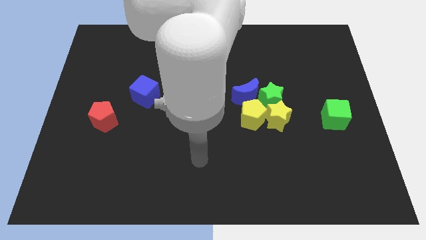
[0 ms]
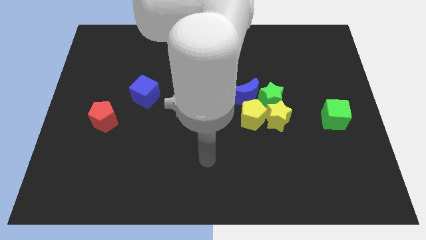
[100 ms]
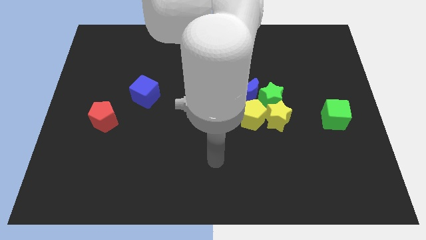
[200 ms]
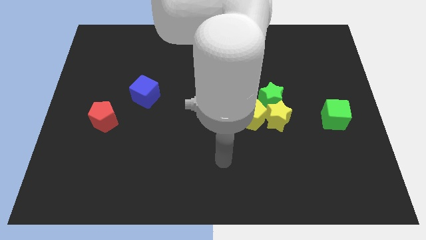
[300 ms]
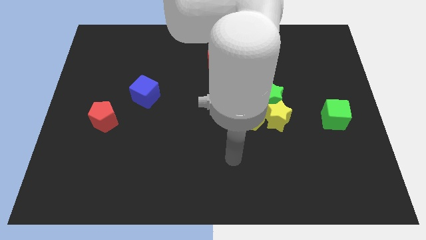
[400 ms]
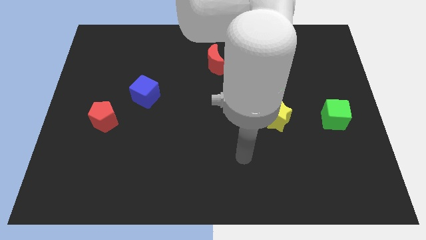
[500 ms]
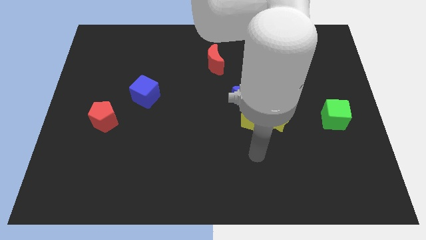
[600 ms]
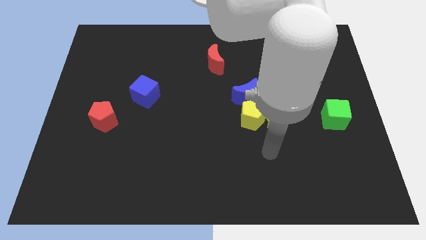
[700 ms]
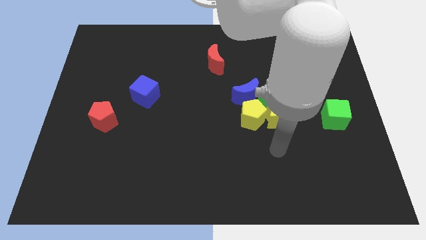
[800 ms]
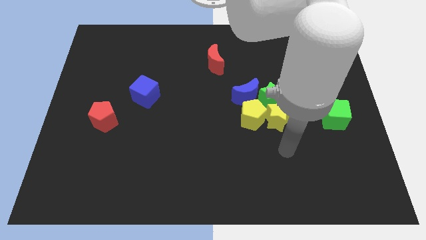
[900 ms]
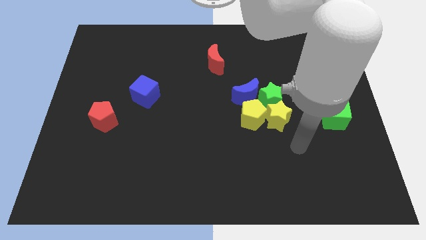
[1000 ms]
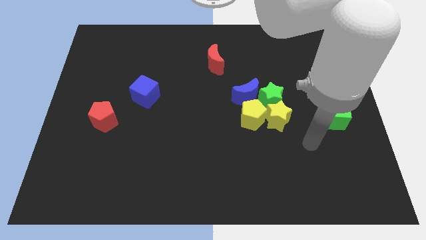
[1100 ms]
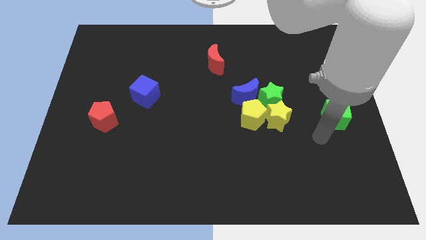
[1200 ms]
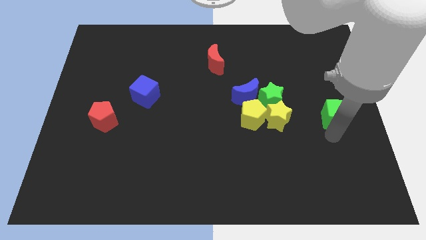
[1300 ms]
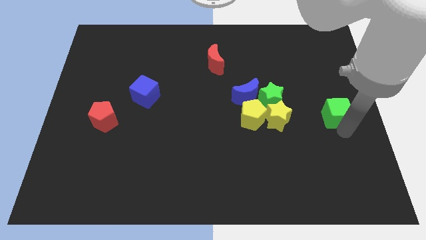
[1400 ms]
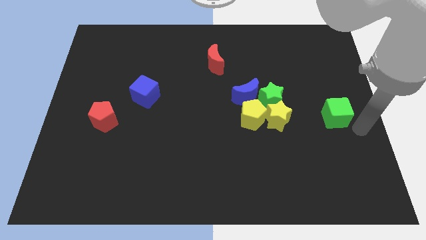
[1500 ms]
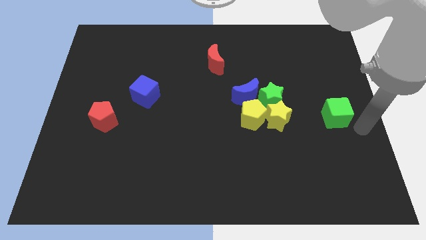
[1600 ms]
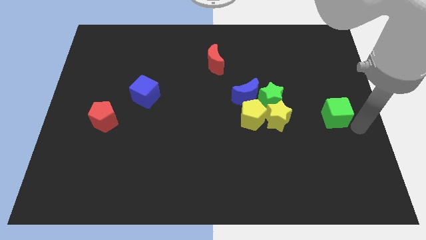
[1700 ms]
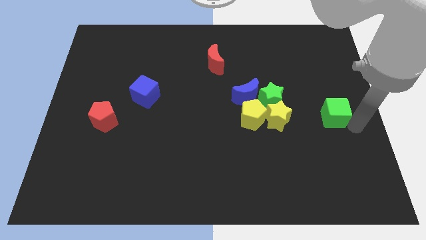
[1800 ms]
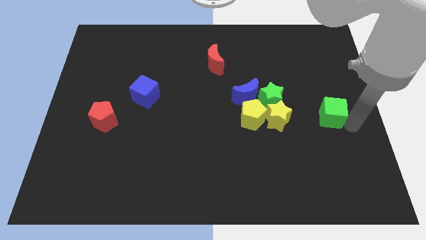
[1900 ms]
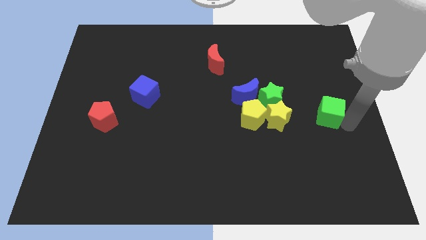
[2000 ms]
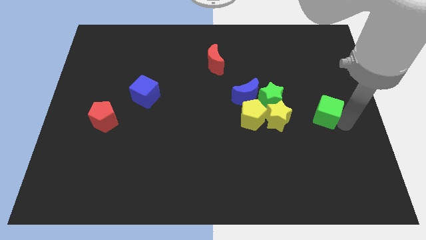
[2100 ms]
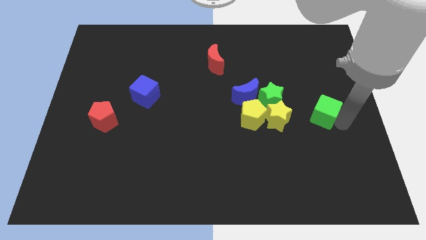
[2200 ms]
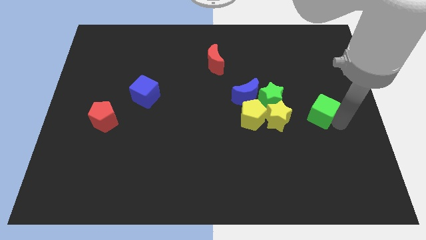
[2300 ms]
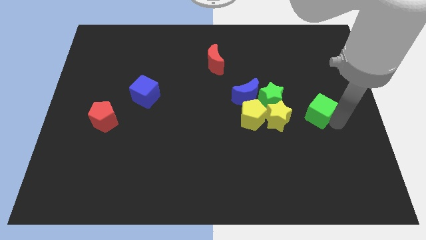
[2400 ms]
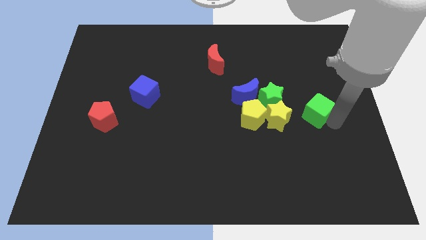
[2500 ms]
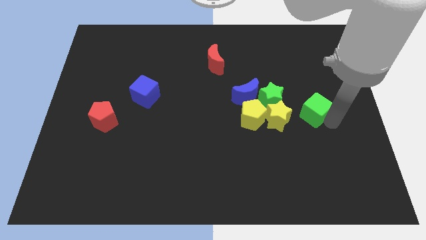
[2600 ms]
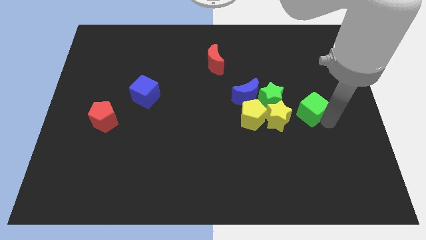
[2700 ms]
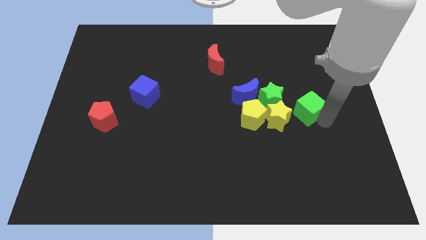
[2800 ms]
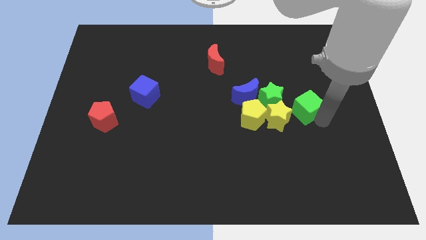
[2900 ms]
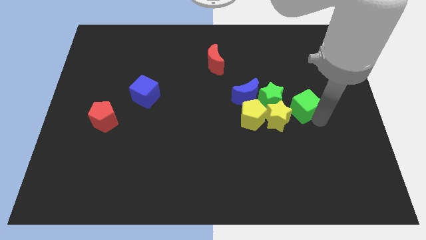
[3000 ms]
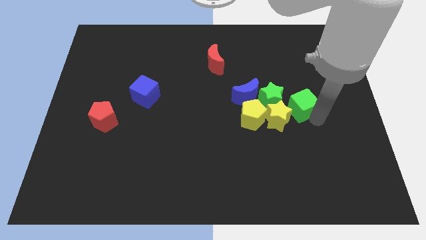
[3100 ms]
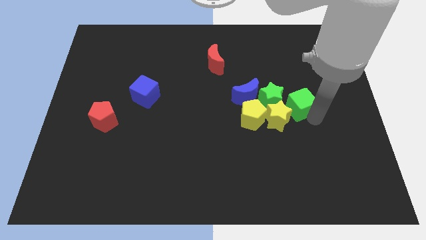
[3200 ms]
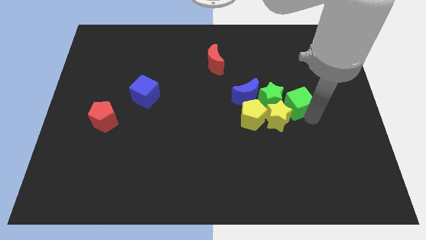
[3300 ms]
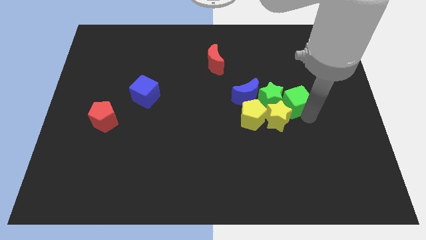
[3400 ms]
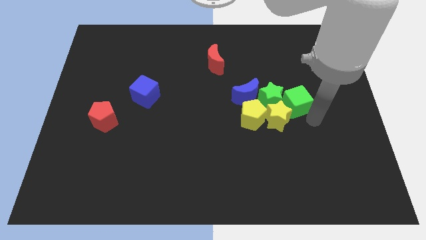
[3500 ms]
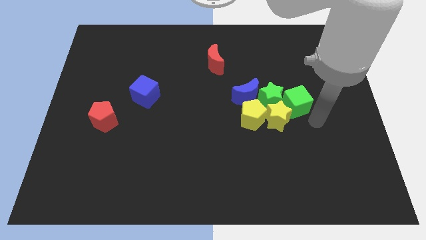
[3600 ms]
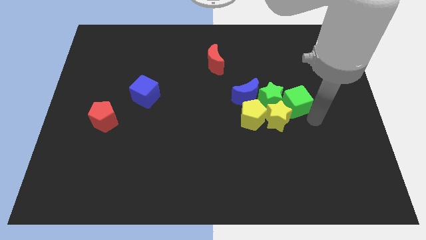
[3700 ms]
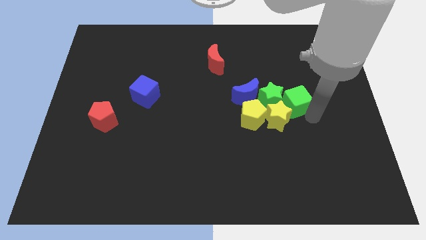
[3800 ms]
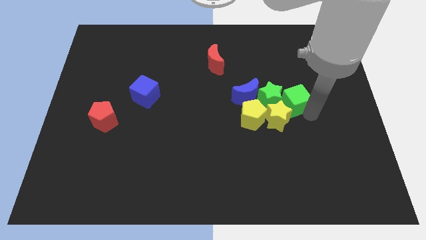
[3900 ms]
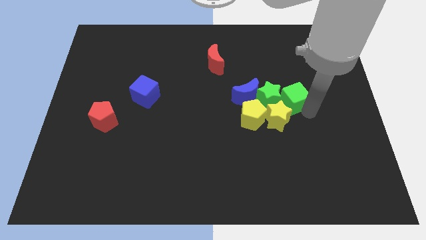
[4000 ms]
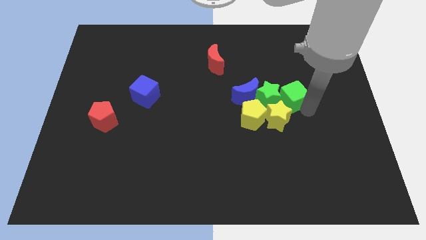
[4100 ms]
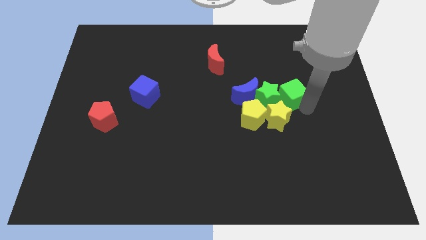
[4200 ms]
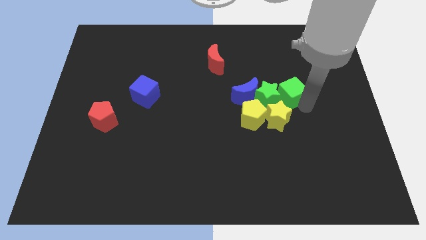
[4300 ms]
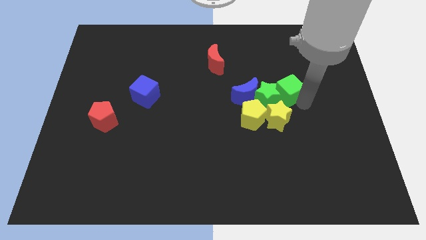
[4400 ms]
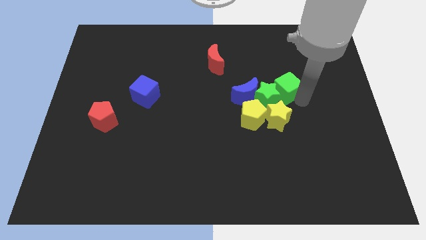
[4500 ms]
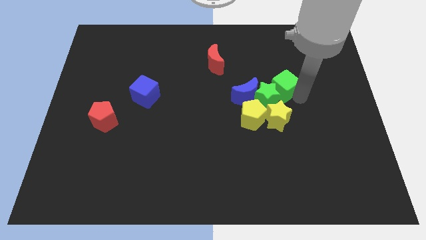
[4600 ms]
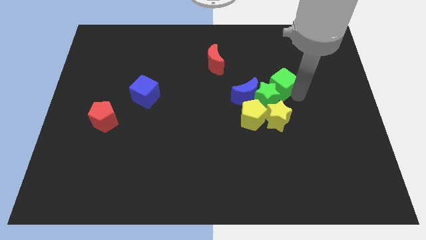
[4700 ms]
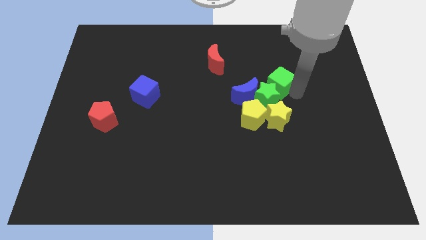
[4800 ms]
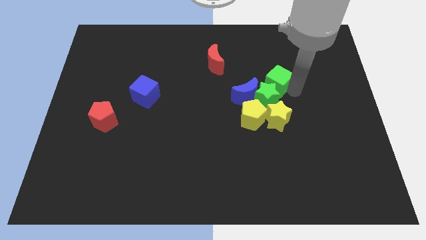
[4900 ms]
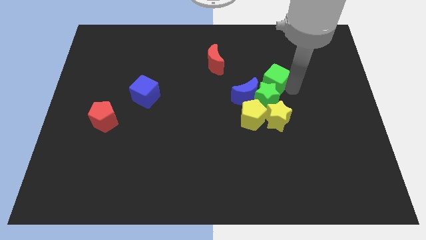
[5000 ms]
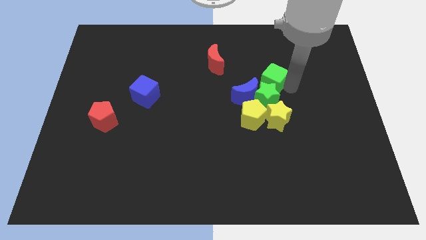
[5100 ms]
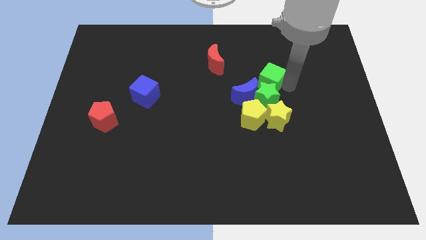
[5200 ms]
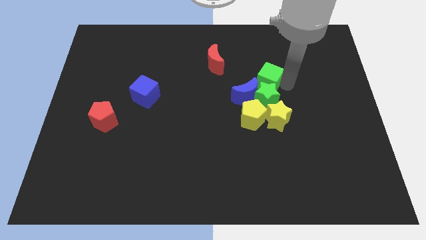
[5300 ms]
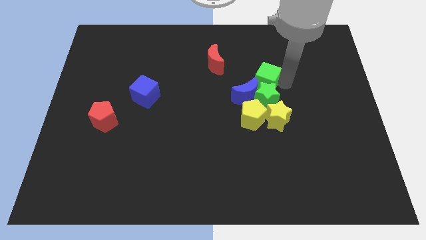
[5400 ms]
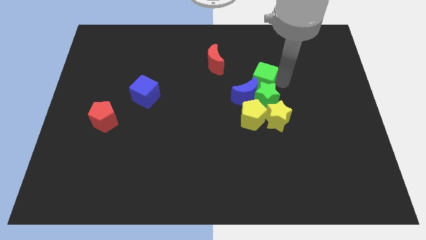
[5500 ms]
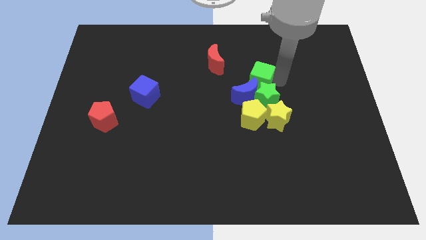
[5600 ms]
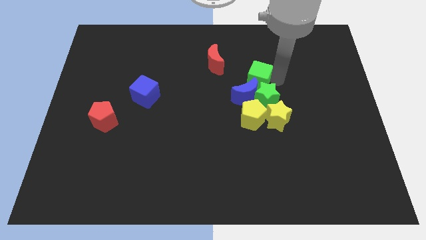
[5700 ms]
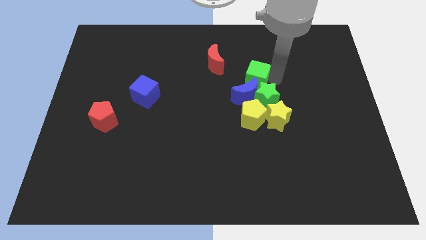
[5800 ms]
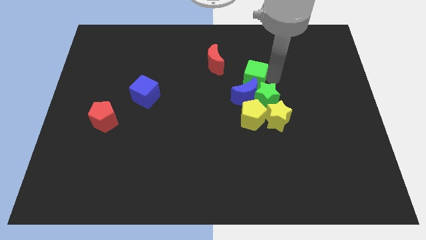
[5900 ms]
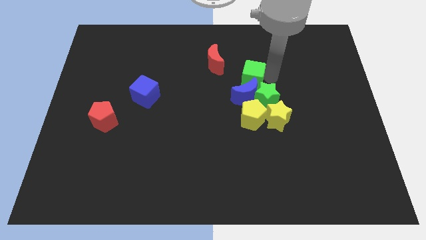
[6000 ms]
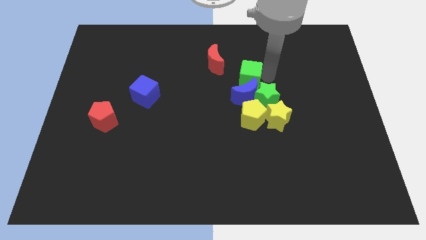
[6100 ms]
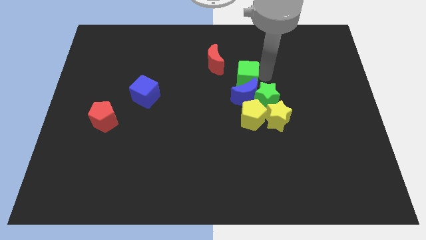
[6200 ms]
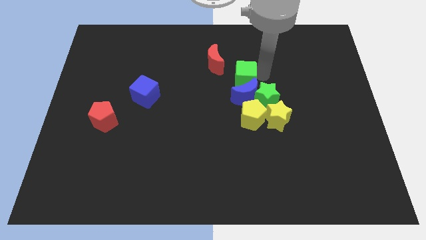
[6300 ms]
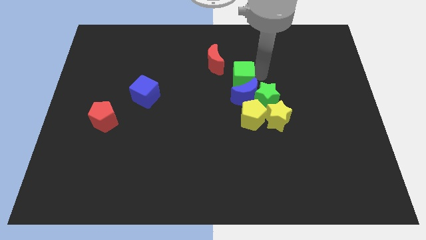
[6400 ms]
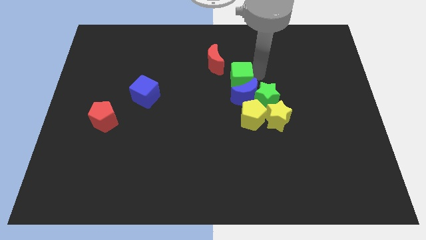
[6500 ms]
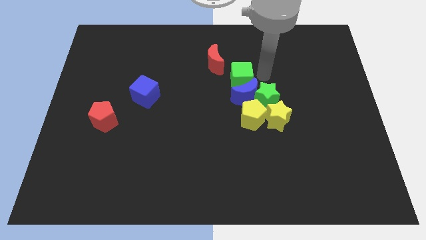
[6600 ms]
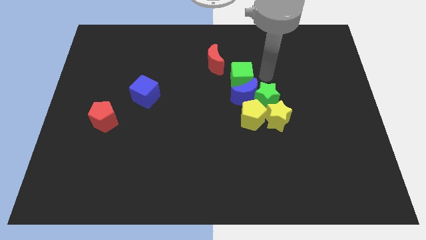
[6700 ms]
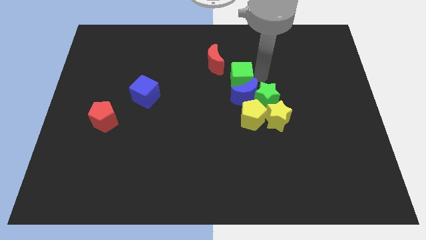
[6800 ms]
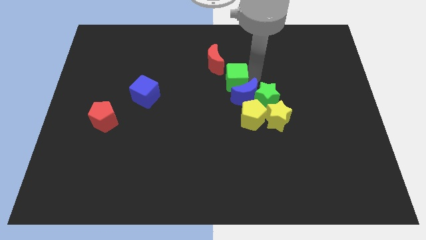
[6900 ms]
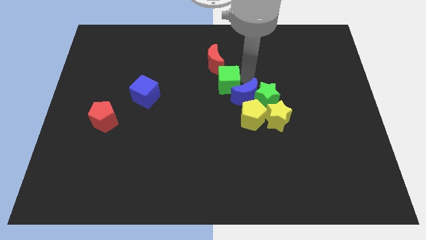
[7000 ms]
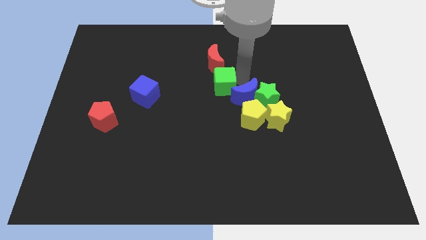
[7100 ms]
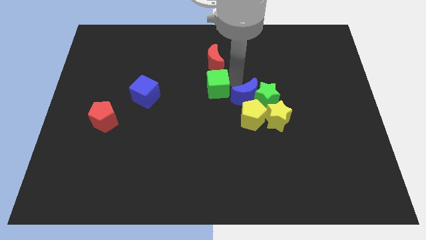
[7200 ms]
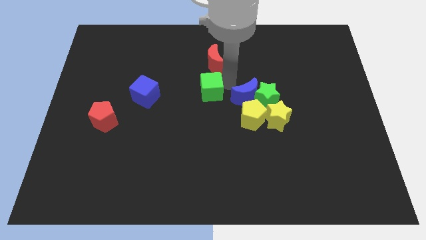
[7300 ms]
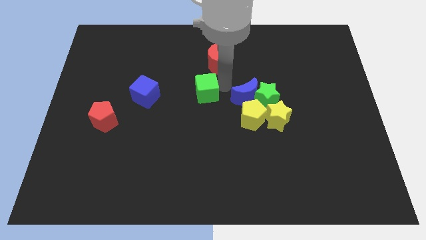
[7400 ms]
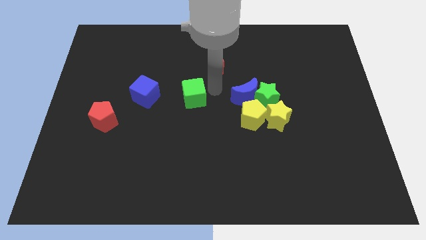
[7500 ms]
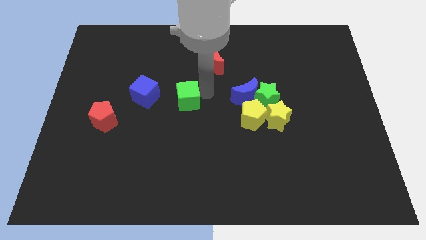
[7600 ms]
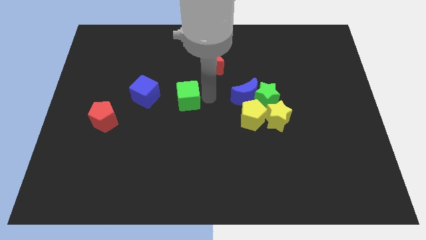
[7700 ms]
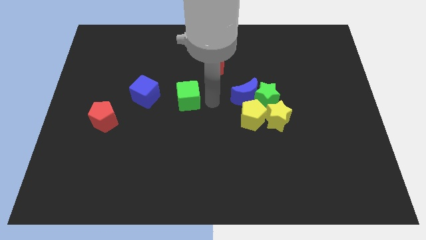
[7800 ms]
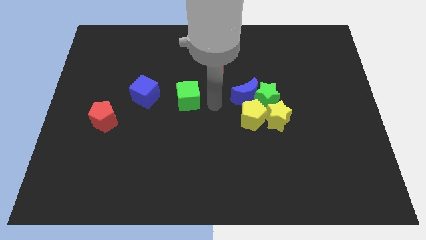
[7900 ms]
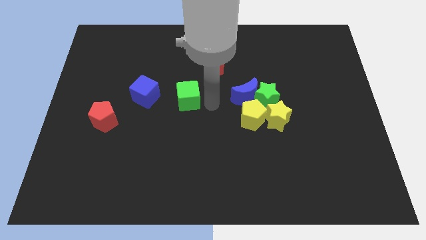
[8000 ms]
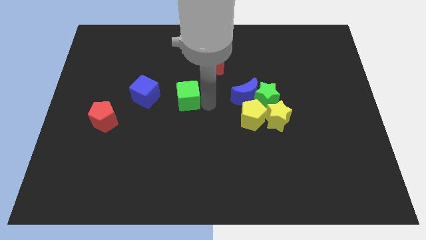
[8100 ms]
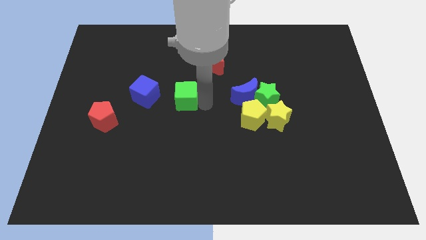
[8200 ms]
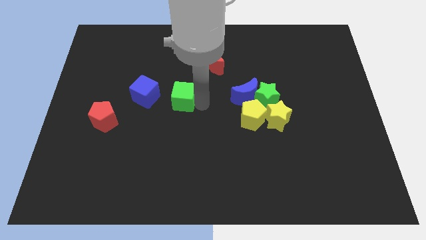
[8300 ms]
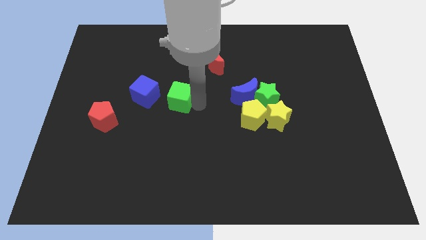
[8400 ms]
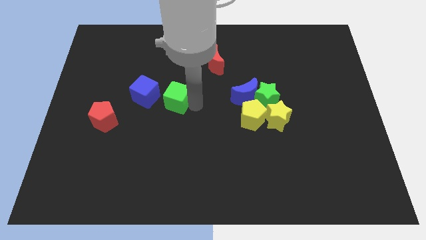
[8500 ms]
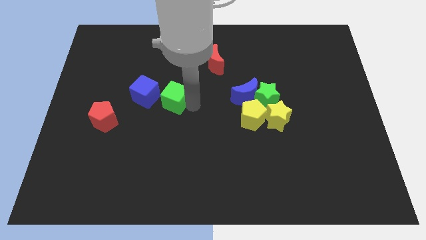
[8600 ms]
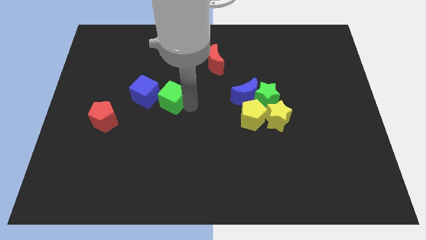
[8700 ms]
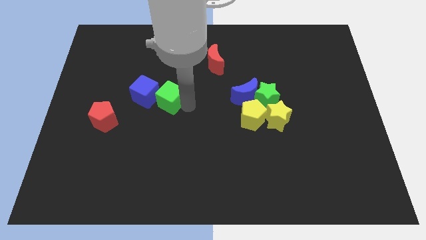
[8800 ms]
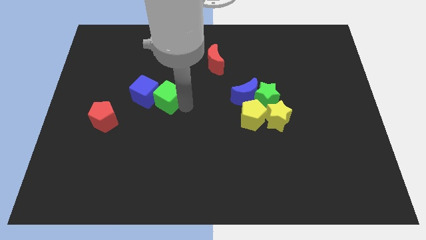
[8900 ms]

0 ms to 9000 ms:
push the green cube close to the blue cube
